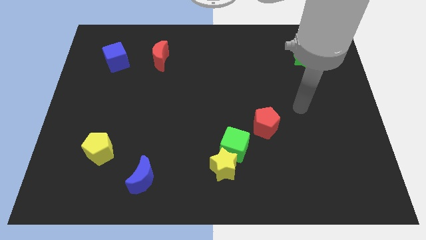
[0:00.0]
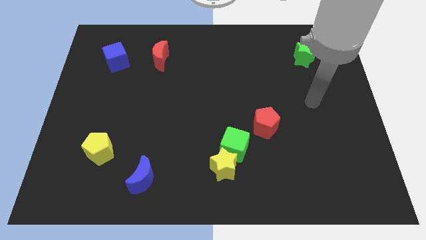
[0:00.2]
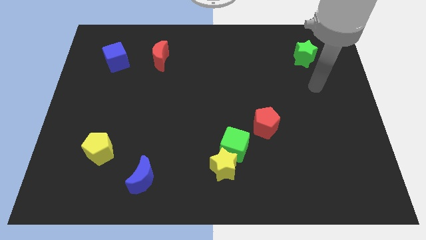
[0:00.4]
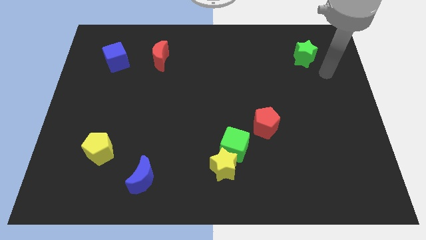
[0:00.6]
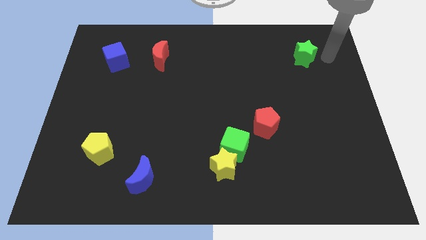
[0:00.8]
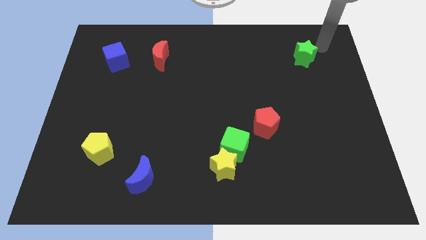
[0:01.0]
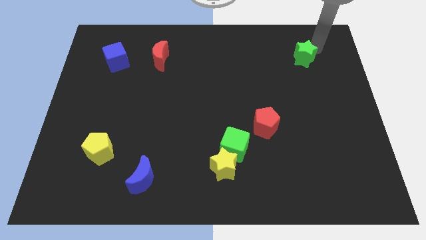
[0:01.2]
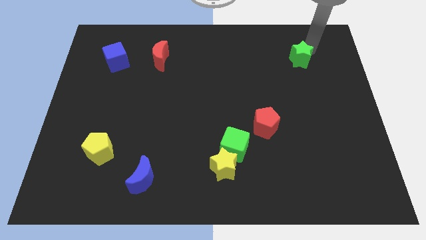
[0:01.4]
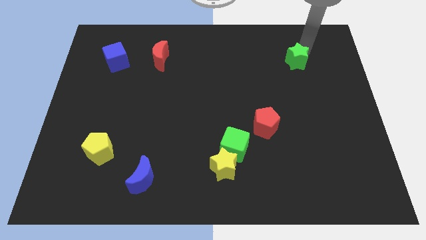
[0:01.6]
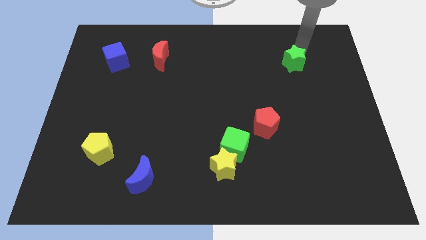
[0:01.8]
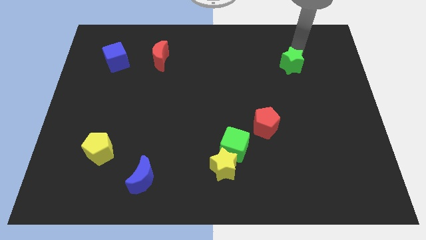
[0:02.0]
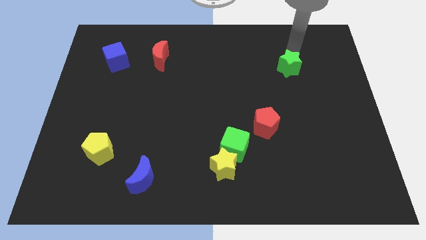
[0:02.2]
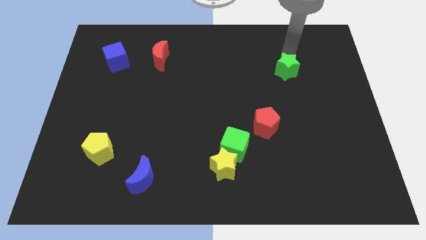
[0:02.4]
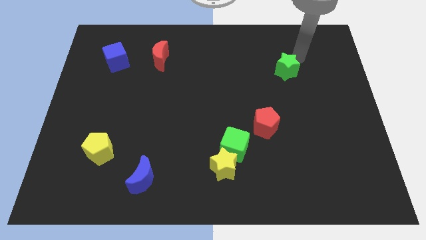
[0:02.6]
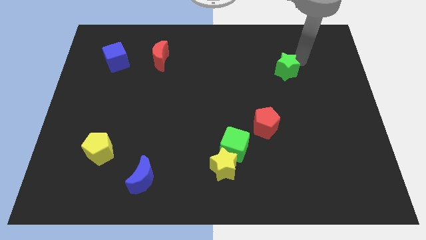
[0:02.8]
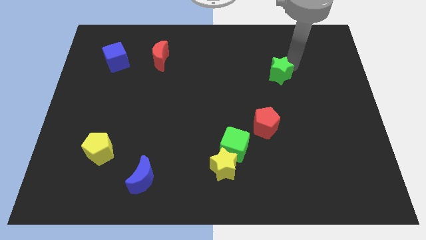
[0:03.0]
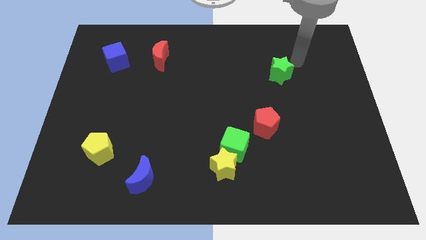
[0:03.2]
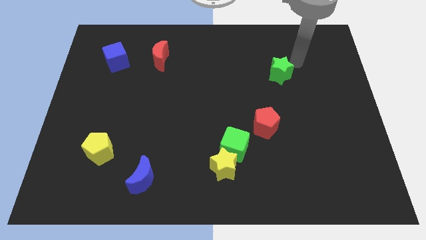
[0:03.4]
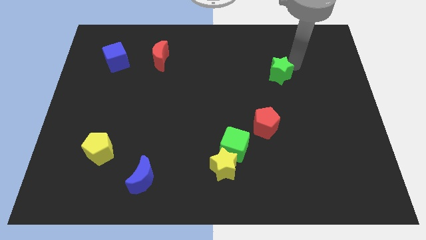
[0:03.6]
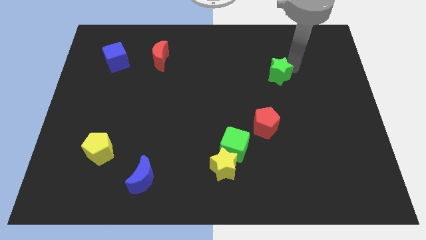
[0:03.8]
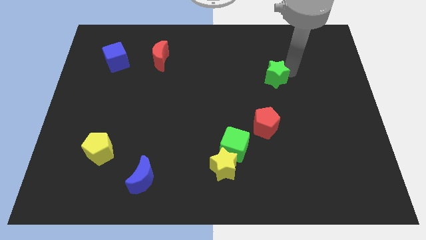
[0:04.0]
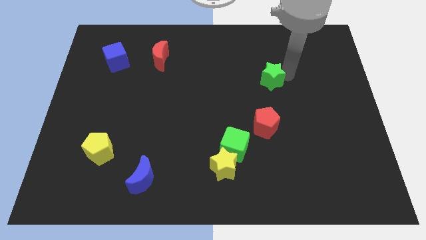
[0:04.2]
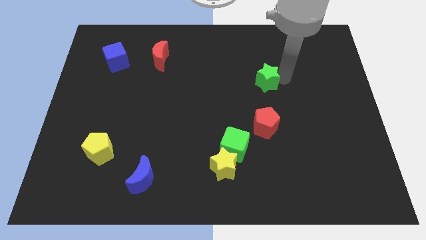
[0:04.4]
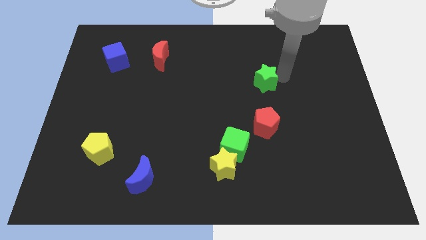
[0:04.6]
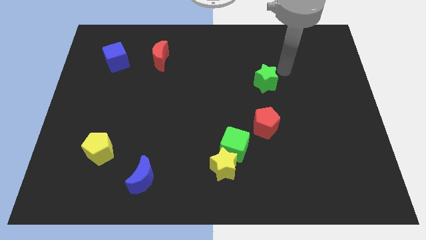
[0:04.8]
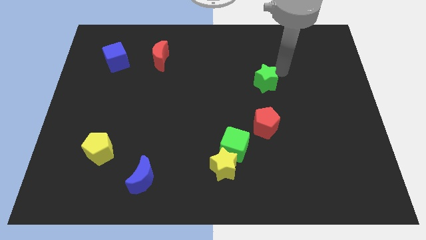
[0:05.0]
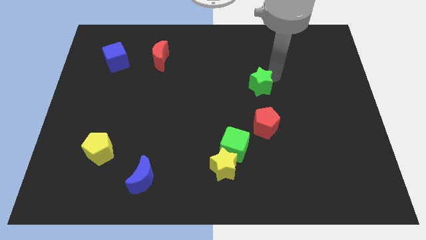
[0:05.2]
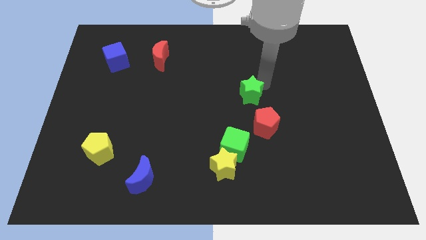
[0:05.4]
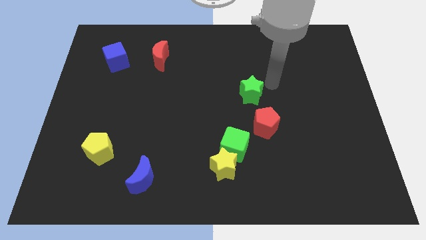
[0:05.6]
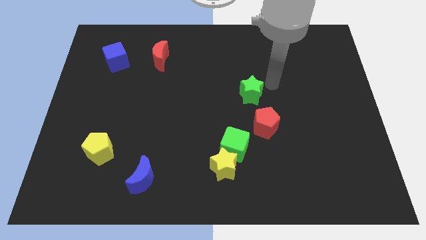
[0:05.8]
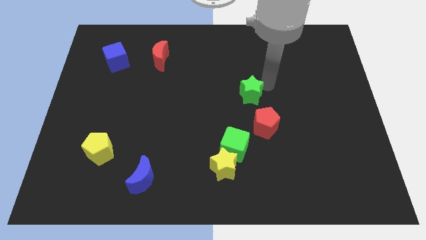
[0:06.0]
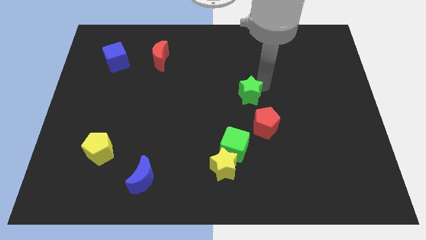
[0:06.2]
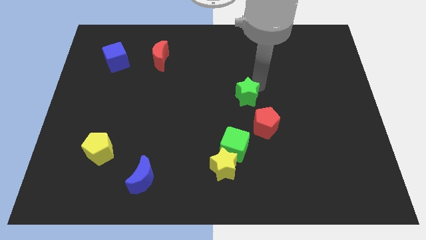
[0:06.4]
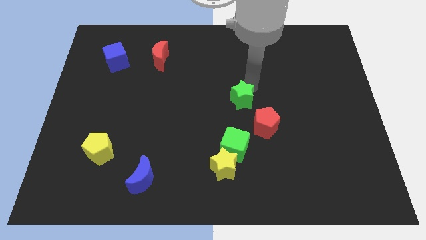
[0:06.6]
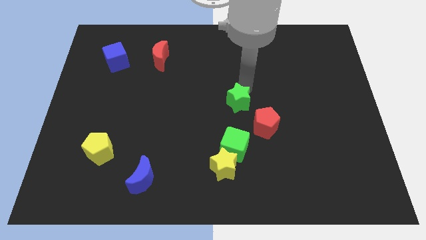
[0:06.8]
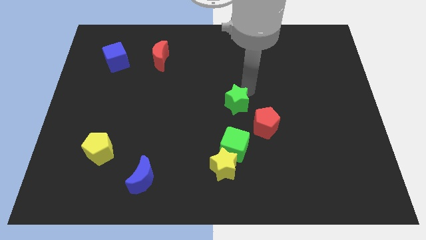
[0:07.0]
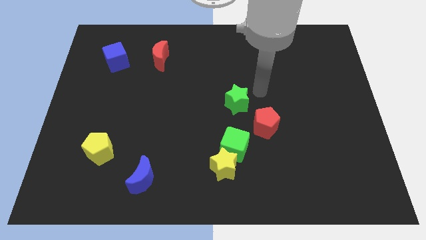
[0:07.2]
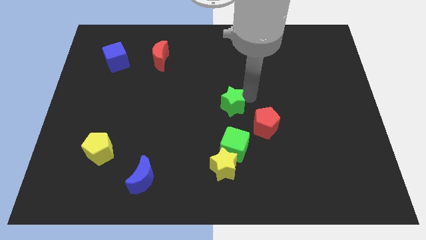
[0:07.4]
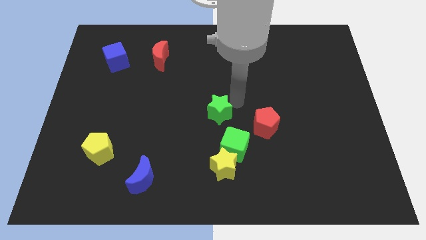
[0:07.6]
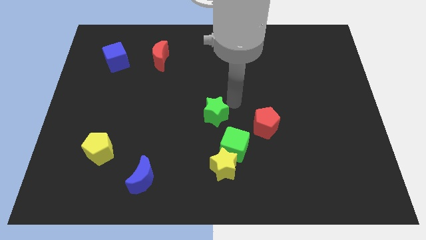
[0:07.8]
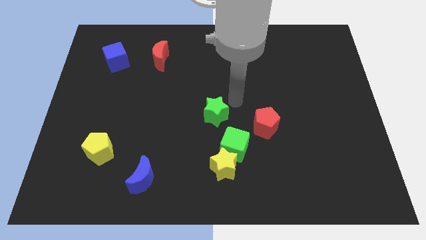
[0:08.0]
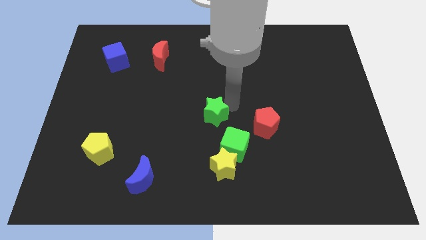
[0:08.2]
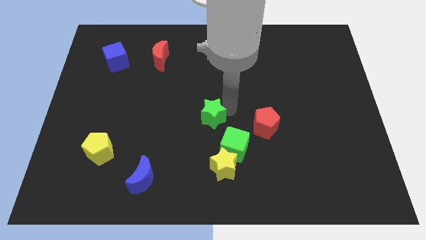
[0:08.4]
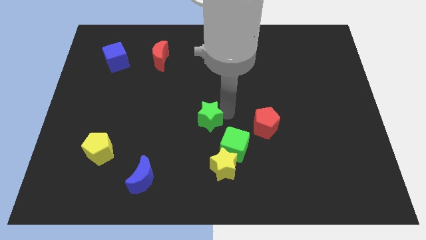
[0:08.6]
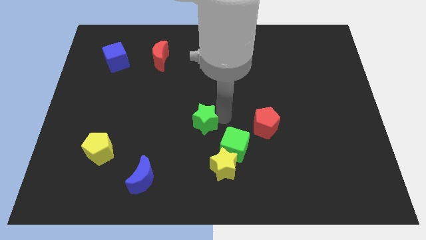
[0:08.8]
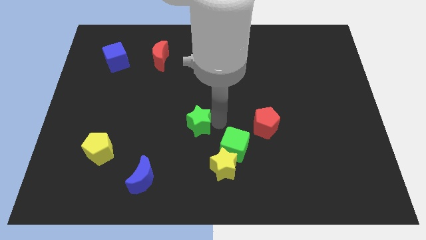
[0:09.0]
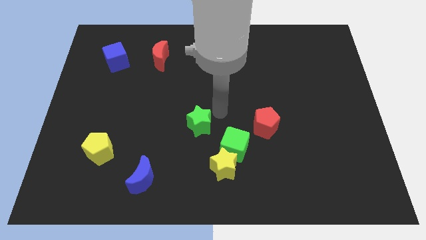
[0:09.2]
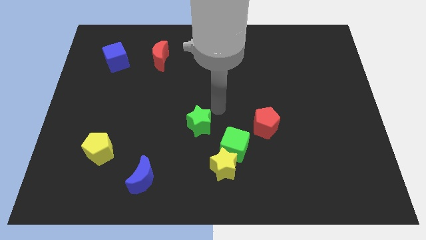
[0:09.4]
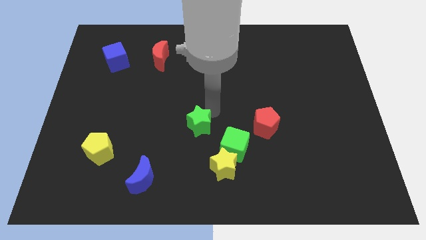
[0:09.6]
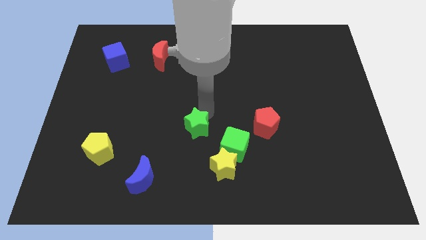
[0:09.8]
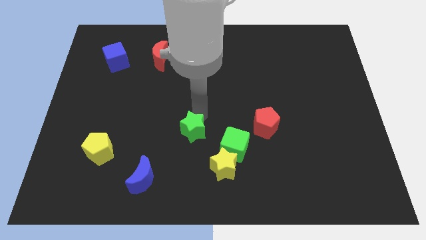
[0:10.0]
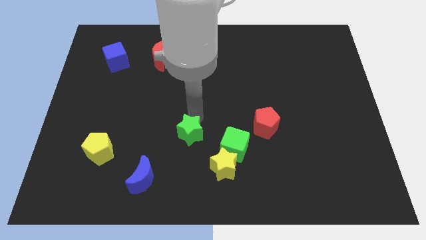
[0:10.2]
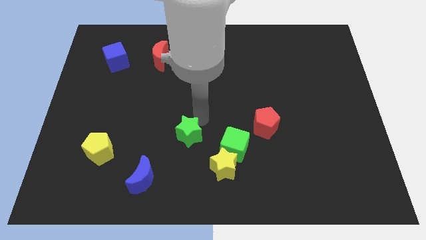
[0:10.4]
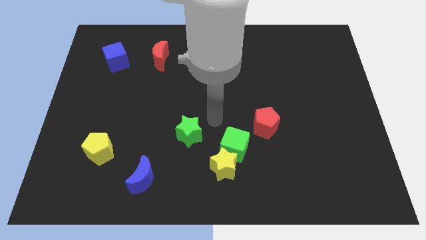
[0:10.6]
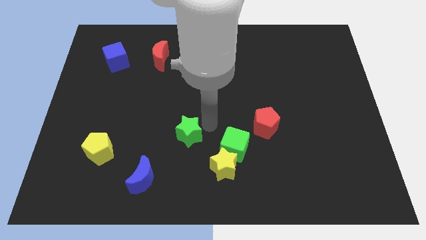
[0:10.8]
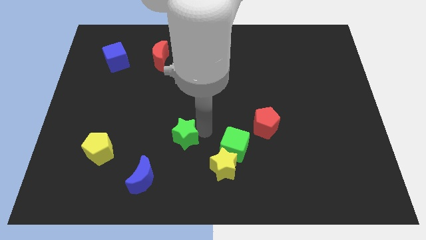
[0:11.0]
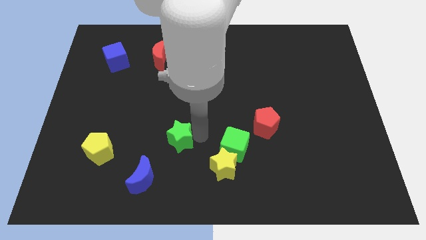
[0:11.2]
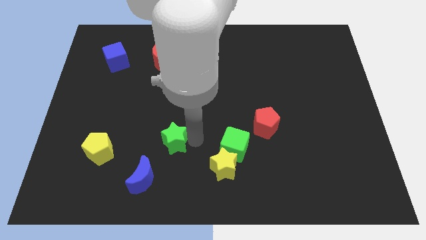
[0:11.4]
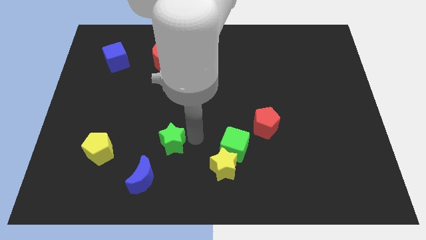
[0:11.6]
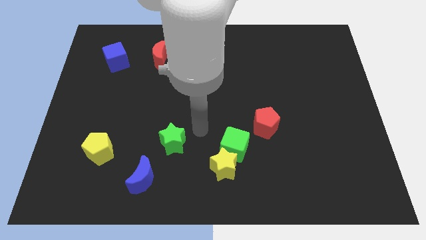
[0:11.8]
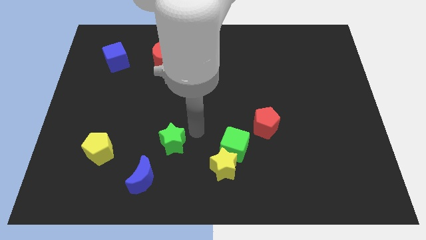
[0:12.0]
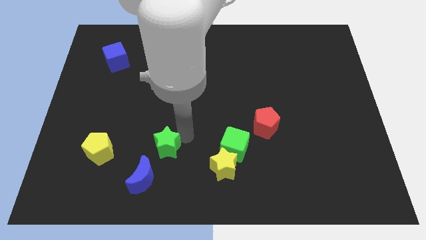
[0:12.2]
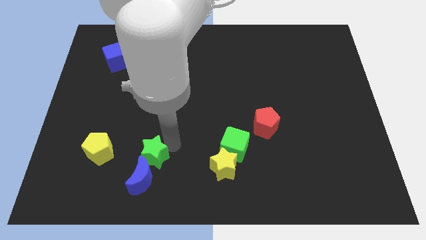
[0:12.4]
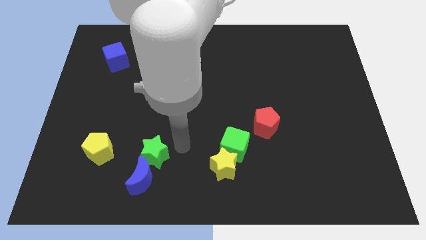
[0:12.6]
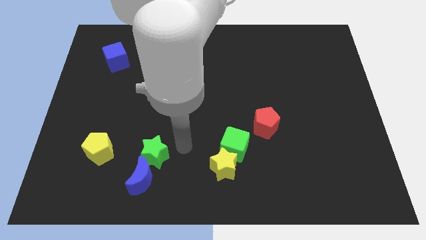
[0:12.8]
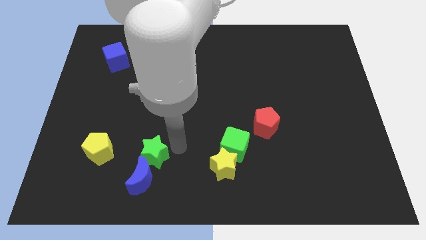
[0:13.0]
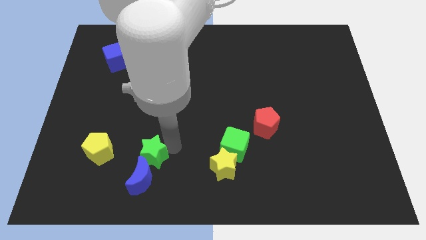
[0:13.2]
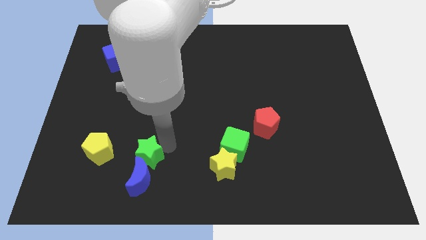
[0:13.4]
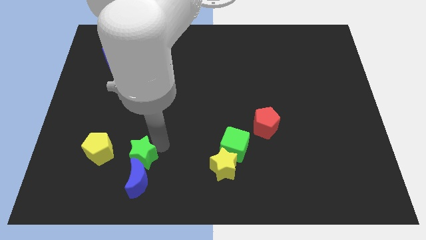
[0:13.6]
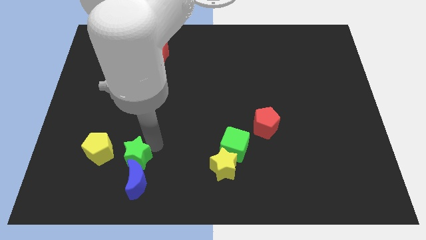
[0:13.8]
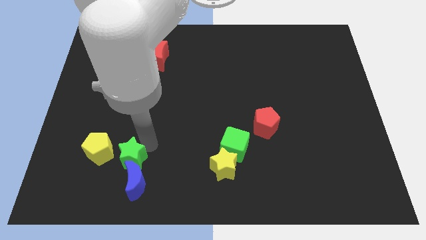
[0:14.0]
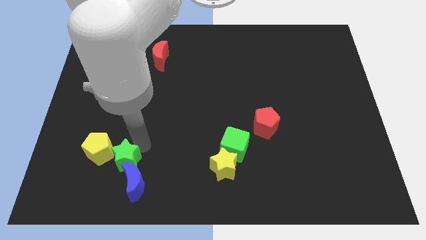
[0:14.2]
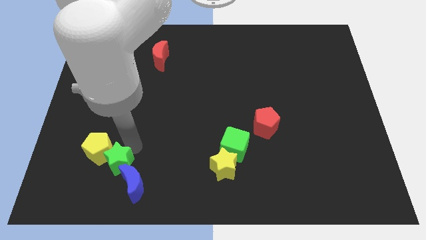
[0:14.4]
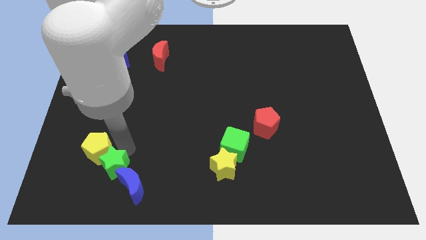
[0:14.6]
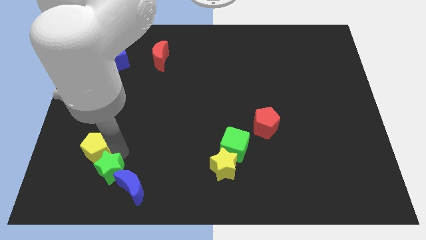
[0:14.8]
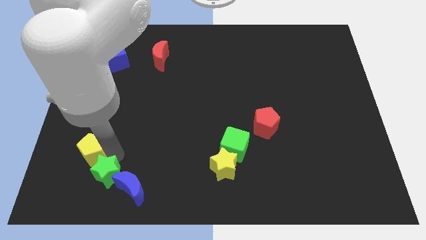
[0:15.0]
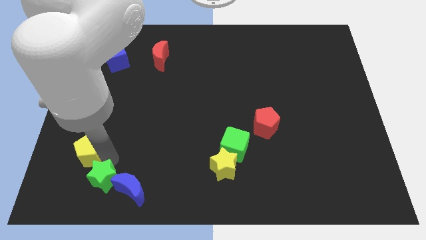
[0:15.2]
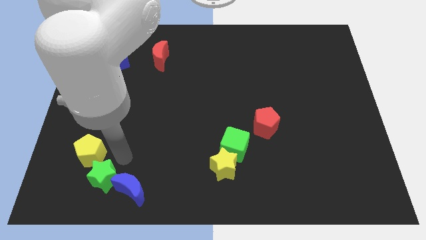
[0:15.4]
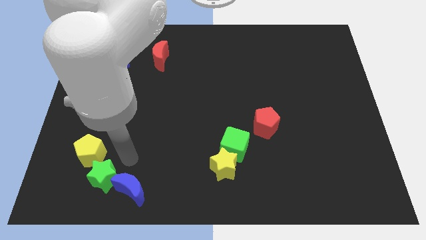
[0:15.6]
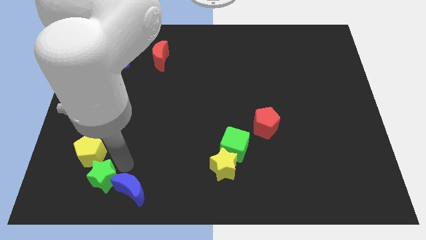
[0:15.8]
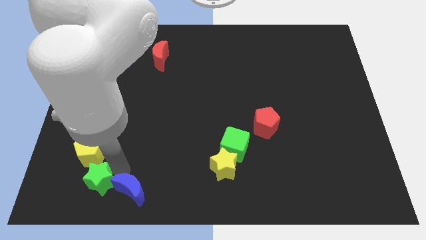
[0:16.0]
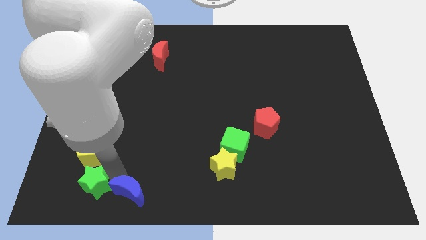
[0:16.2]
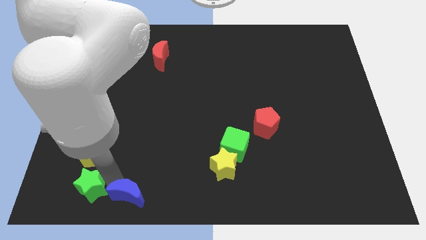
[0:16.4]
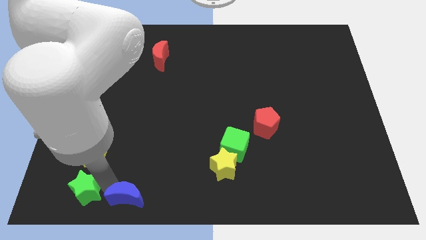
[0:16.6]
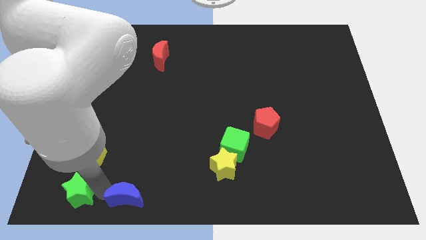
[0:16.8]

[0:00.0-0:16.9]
move the green star to the bottom left corner
